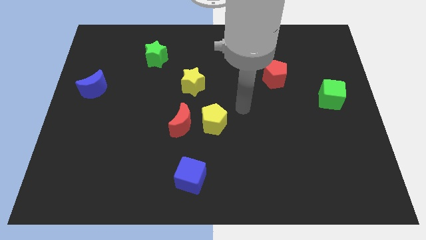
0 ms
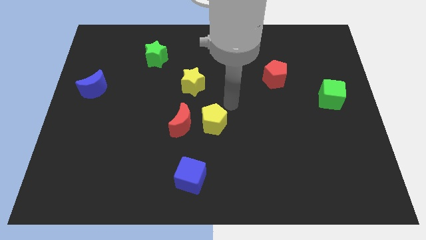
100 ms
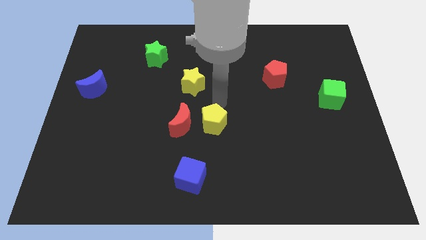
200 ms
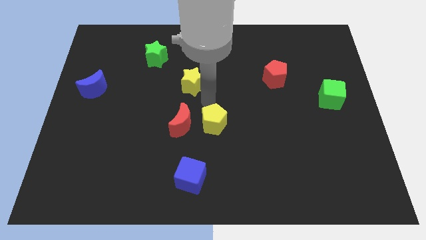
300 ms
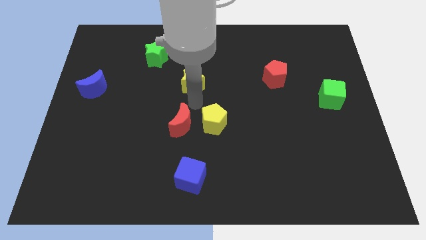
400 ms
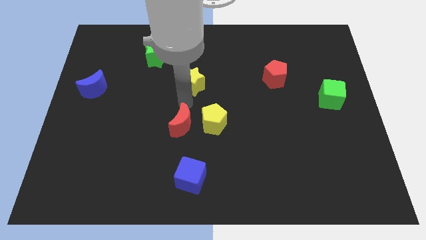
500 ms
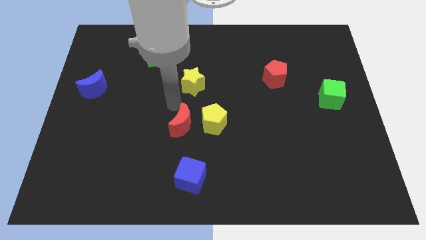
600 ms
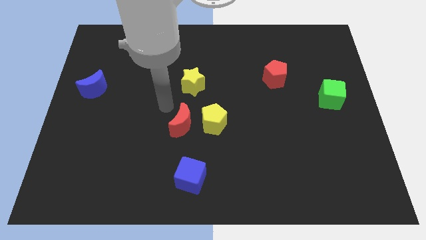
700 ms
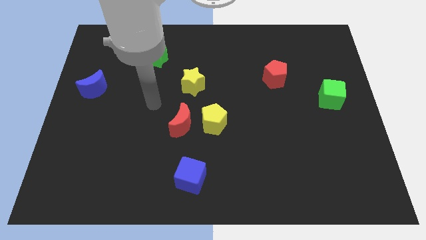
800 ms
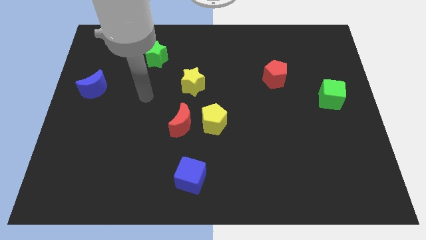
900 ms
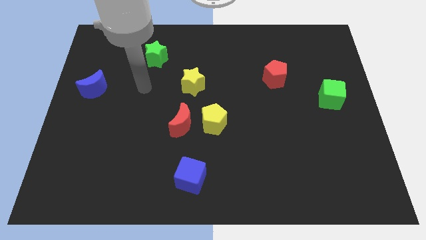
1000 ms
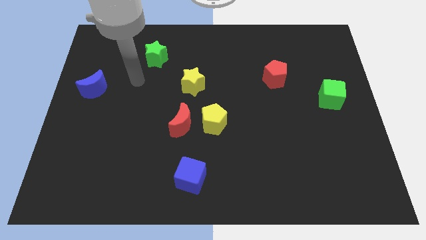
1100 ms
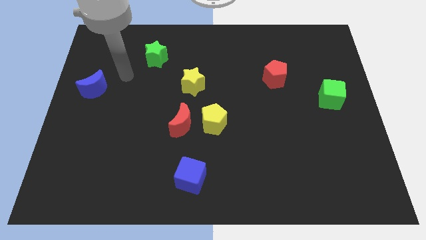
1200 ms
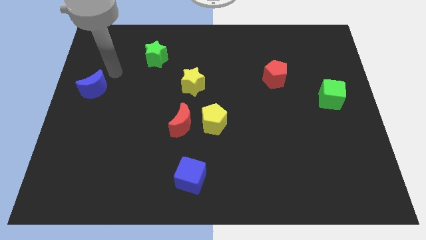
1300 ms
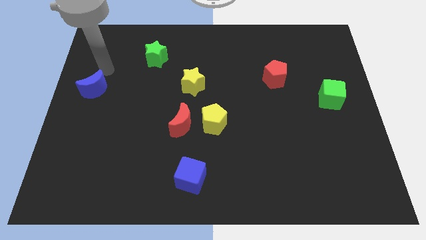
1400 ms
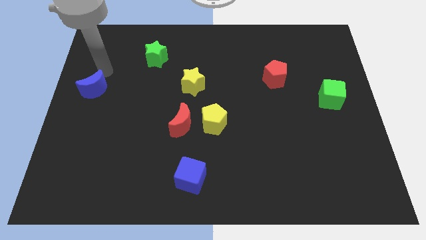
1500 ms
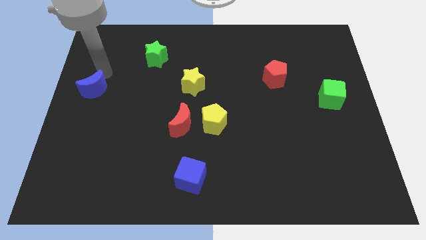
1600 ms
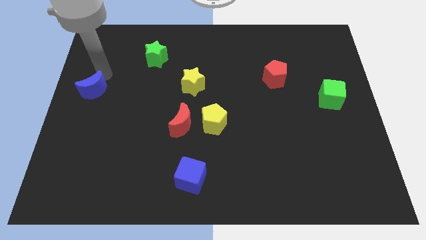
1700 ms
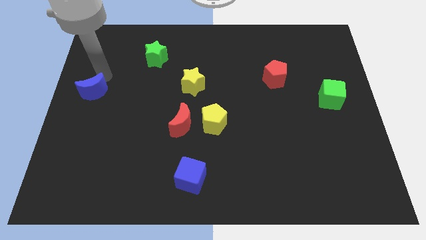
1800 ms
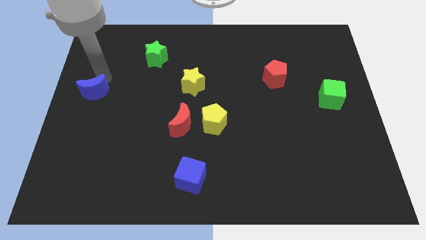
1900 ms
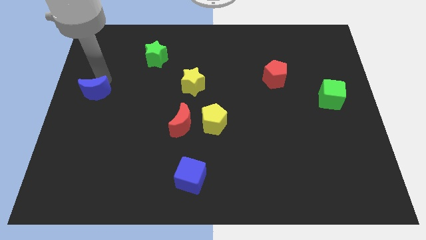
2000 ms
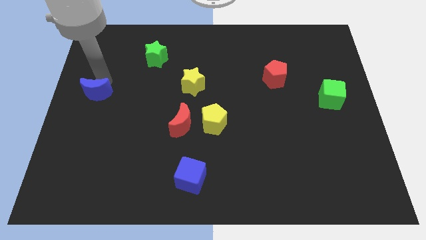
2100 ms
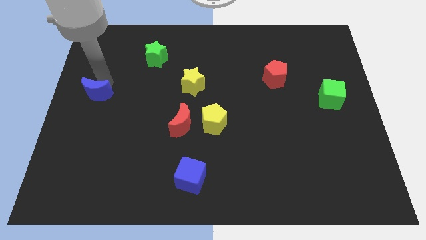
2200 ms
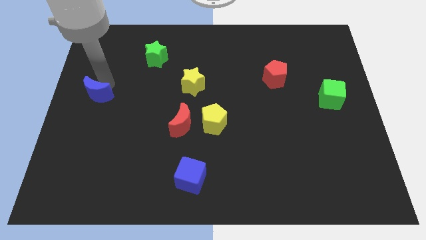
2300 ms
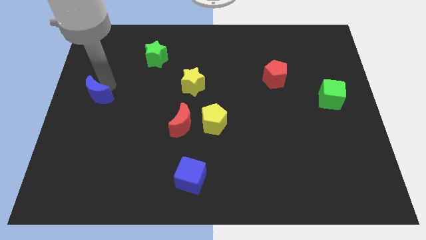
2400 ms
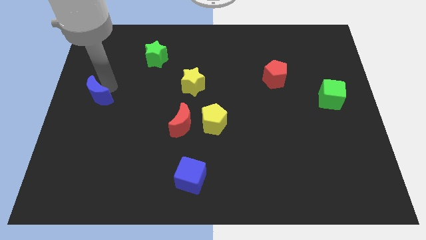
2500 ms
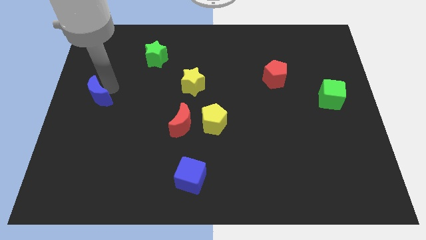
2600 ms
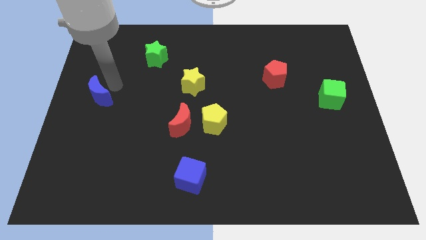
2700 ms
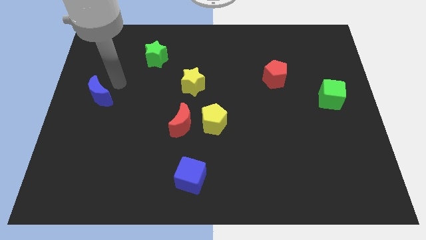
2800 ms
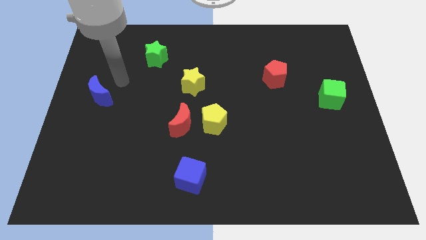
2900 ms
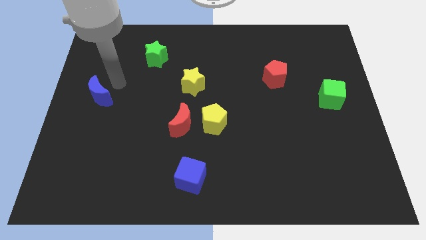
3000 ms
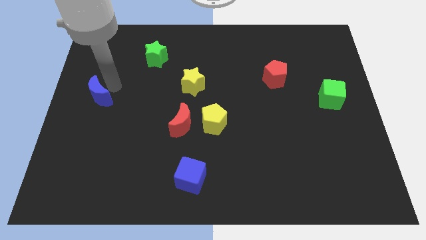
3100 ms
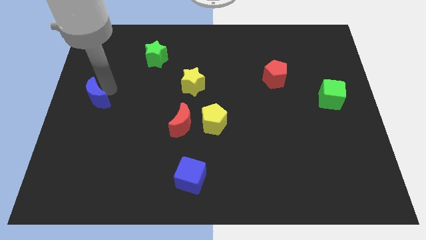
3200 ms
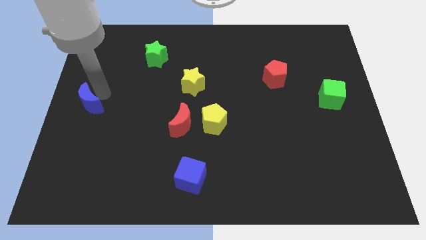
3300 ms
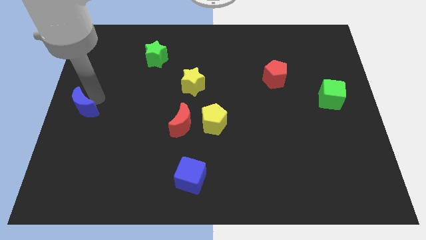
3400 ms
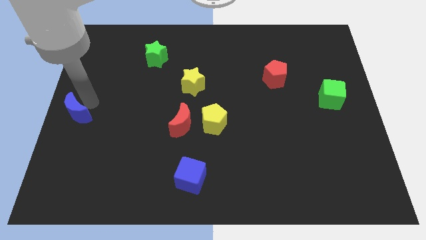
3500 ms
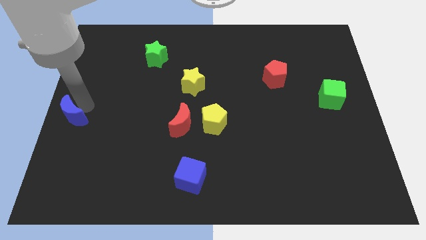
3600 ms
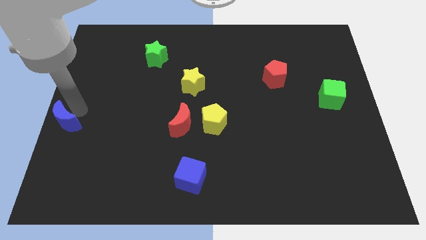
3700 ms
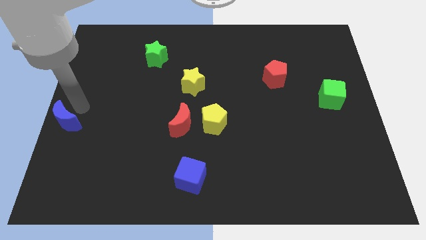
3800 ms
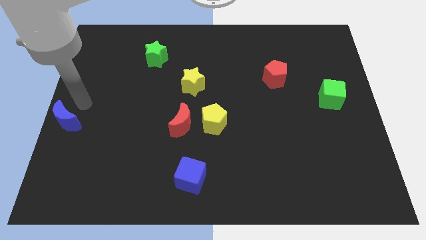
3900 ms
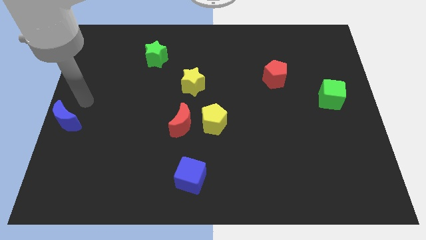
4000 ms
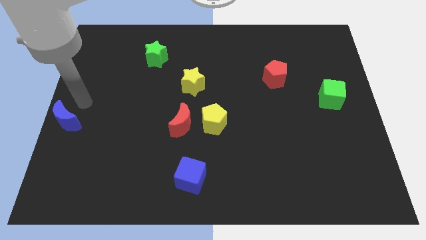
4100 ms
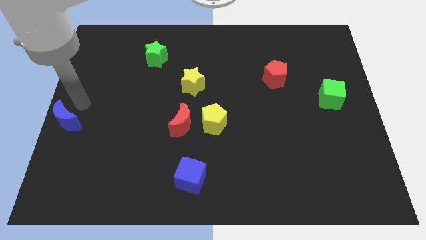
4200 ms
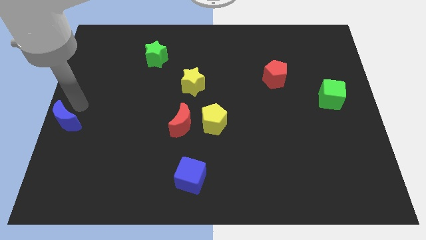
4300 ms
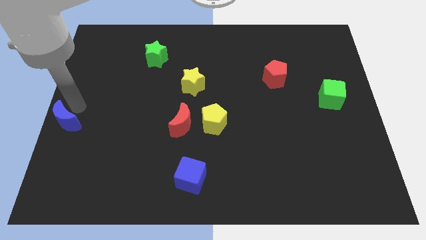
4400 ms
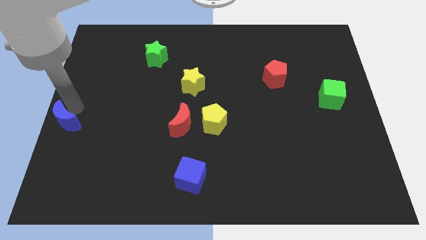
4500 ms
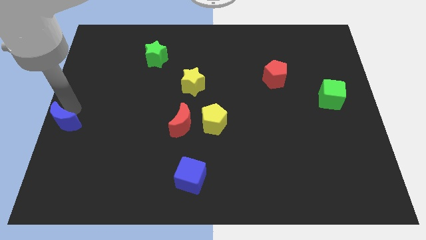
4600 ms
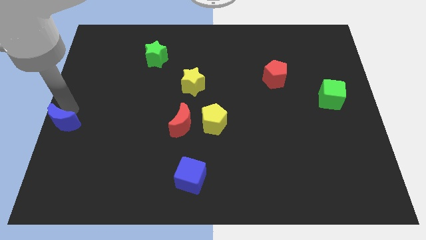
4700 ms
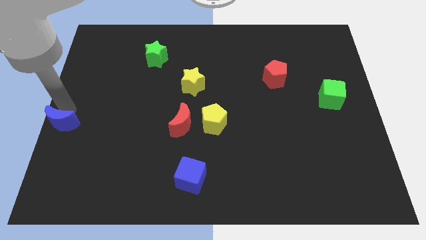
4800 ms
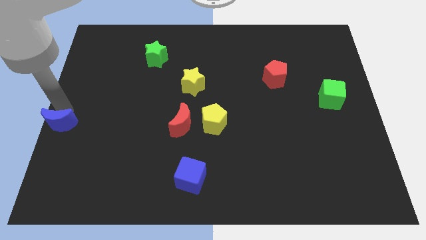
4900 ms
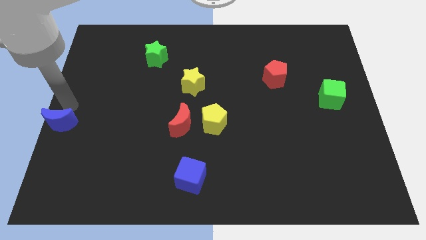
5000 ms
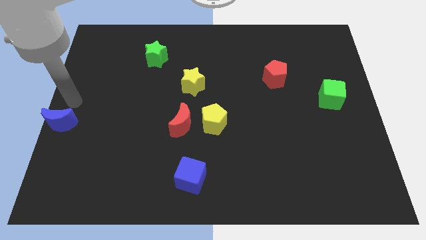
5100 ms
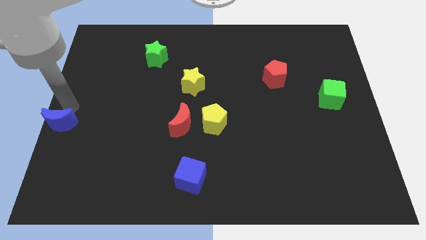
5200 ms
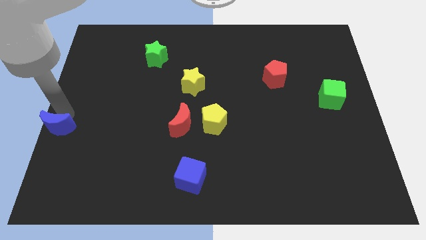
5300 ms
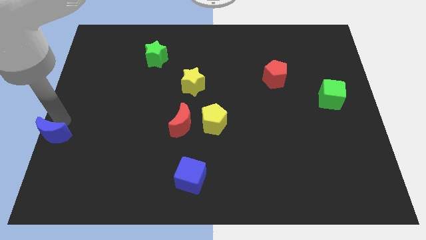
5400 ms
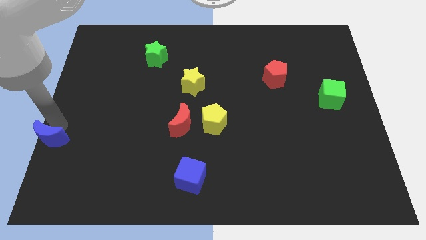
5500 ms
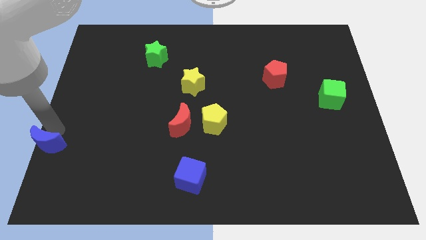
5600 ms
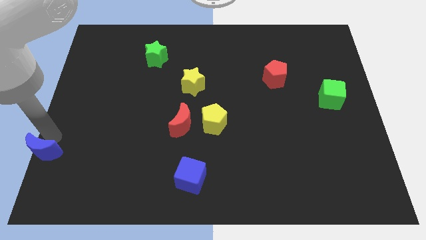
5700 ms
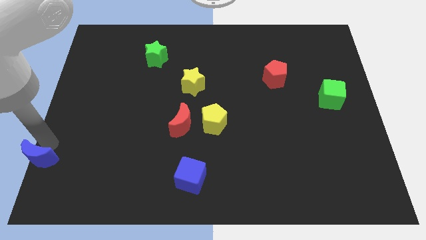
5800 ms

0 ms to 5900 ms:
move the blue moon to the bottom left

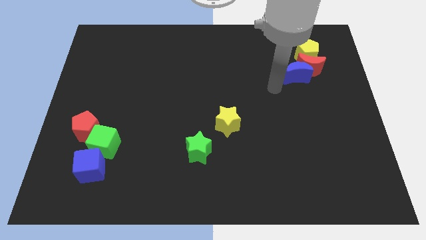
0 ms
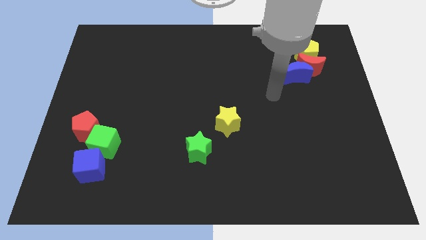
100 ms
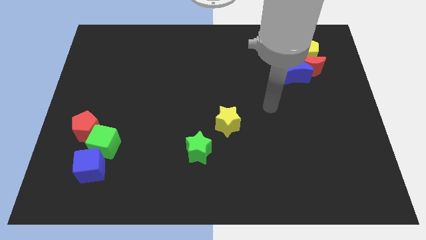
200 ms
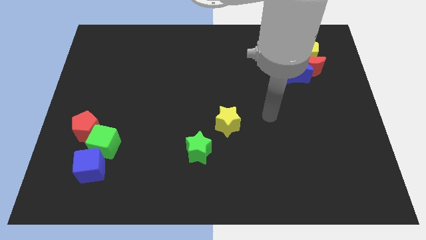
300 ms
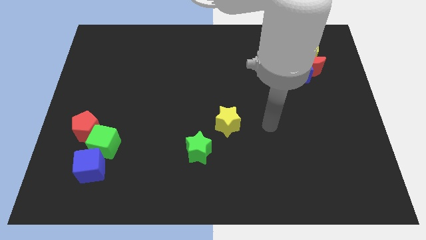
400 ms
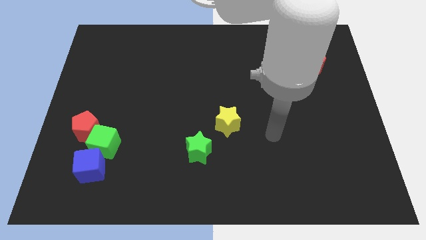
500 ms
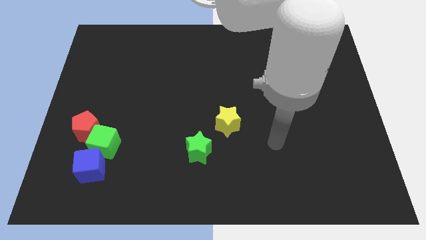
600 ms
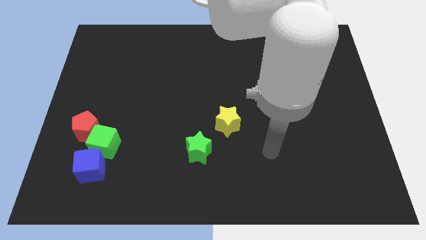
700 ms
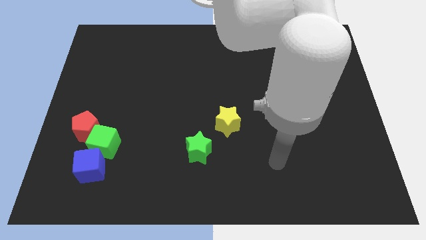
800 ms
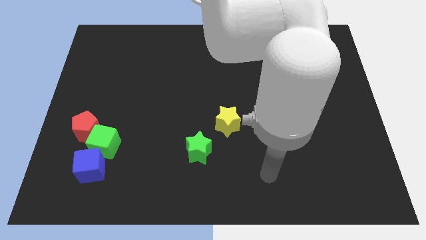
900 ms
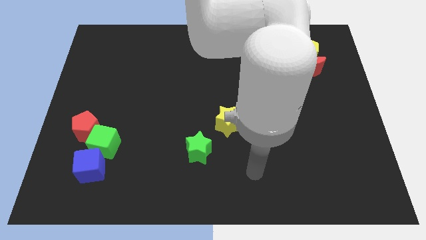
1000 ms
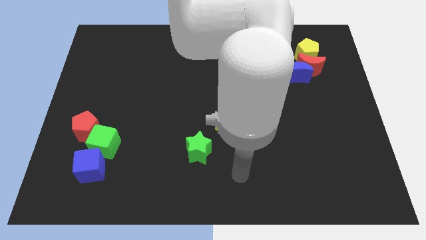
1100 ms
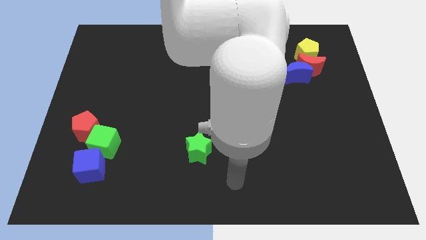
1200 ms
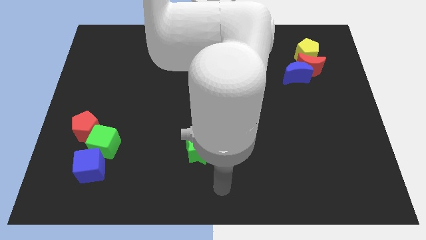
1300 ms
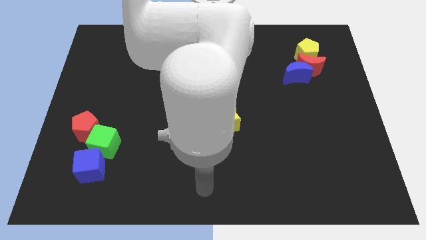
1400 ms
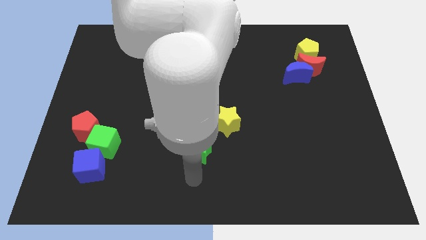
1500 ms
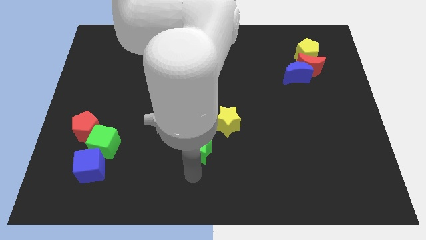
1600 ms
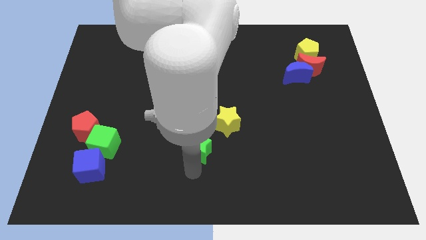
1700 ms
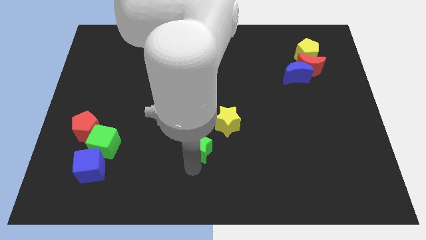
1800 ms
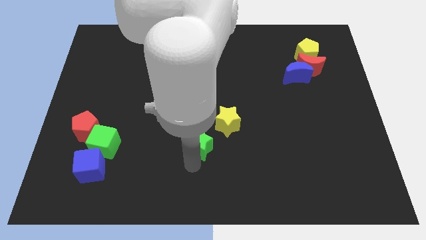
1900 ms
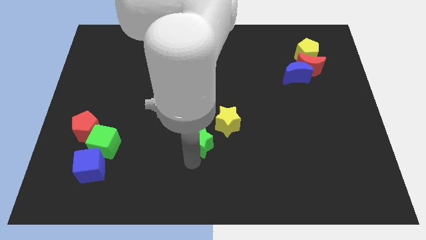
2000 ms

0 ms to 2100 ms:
push the green star to the middle
